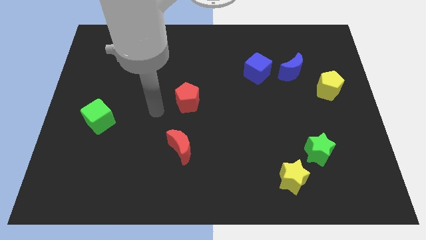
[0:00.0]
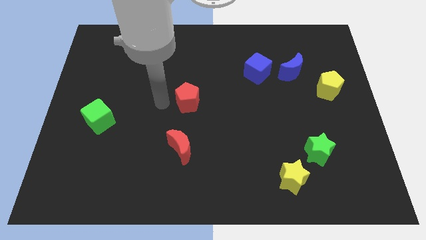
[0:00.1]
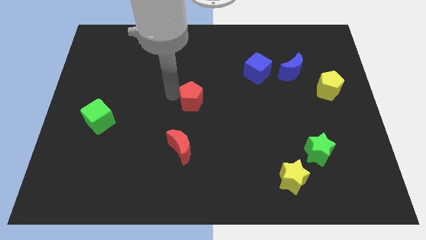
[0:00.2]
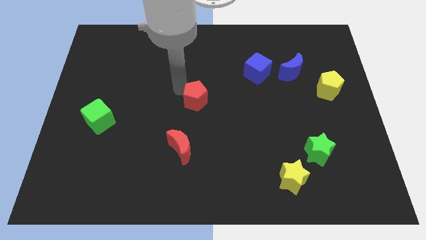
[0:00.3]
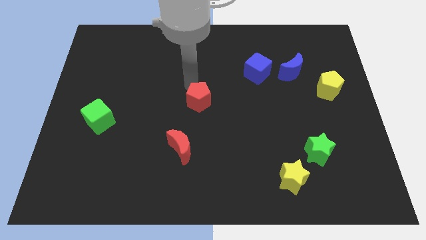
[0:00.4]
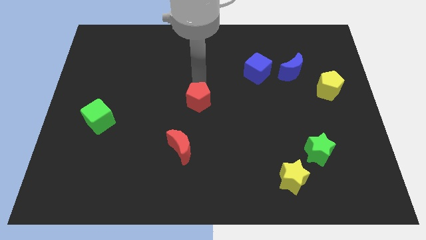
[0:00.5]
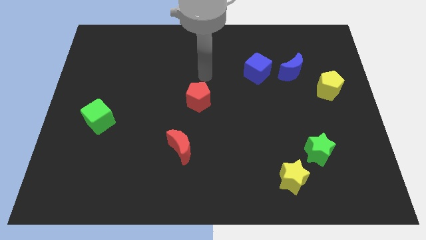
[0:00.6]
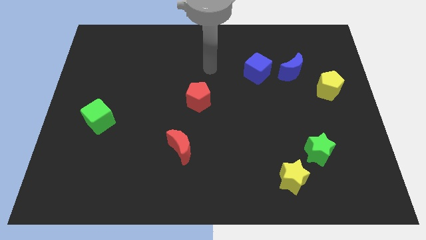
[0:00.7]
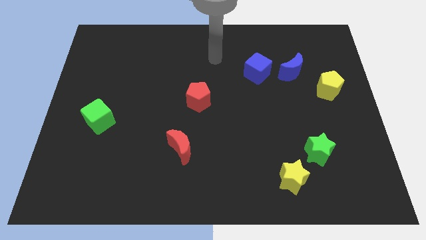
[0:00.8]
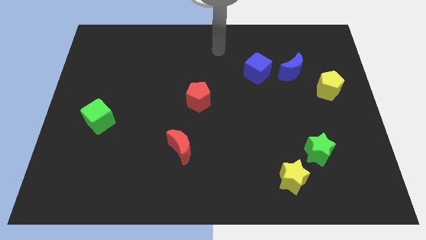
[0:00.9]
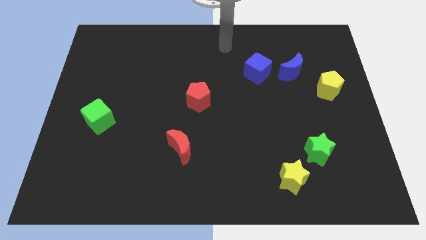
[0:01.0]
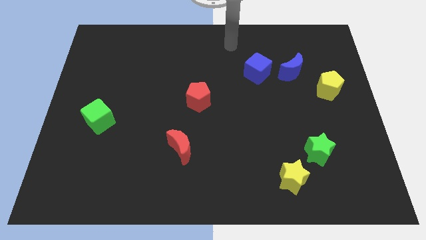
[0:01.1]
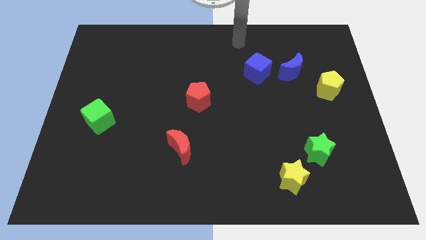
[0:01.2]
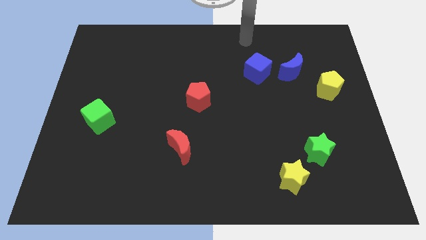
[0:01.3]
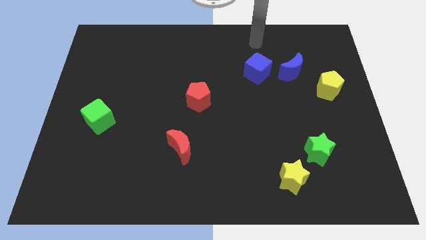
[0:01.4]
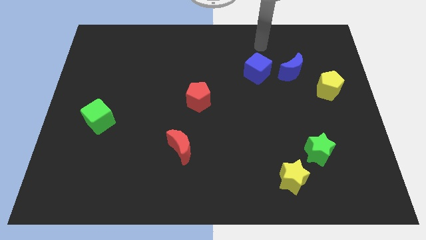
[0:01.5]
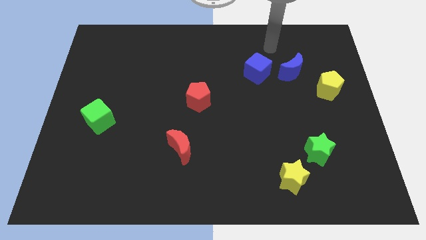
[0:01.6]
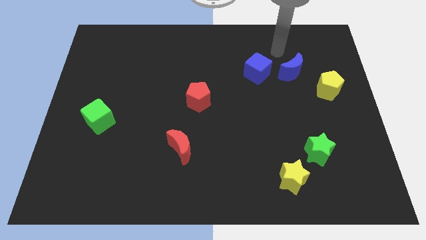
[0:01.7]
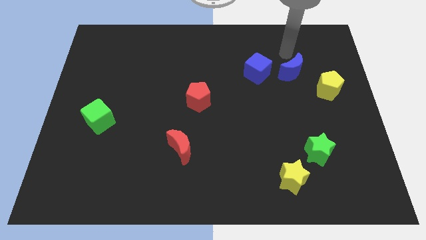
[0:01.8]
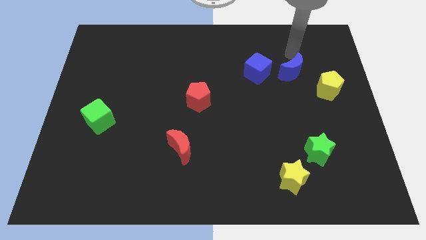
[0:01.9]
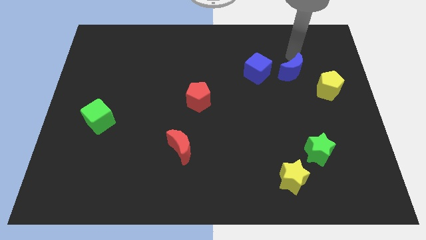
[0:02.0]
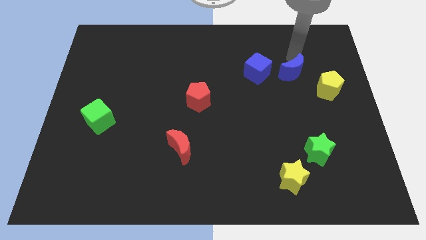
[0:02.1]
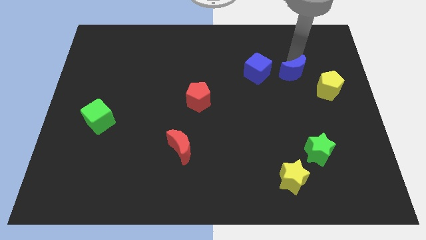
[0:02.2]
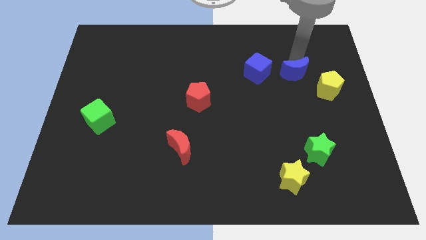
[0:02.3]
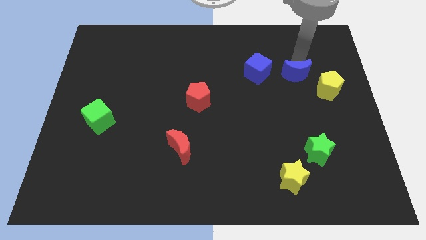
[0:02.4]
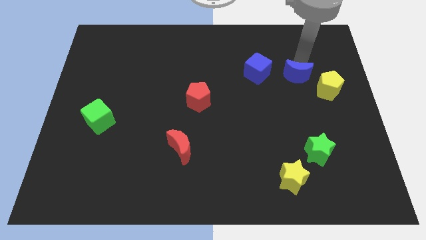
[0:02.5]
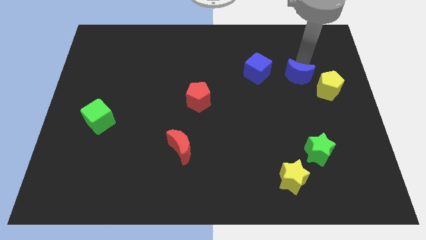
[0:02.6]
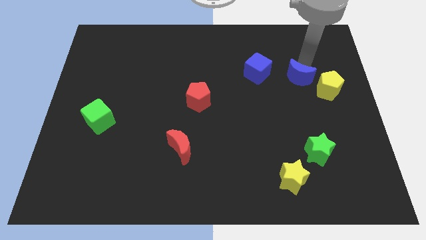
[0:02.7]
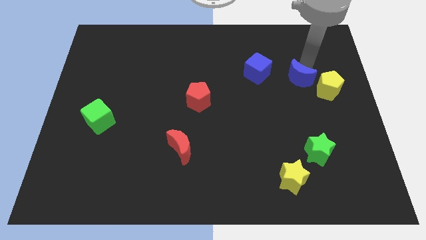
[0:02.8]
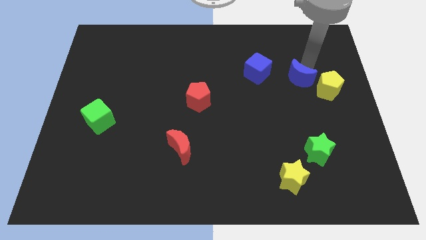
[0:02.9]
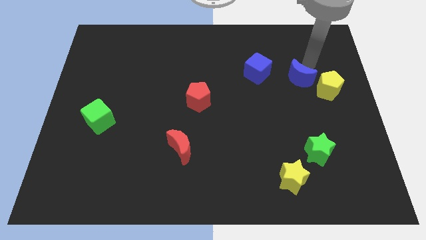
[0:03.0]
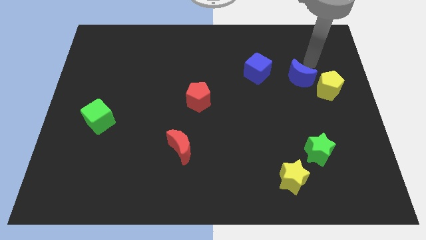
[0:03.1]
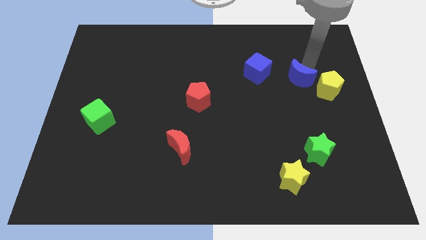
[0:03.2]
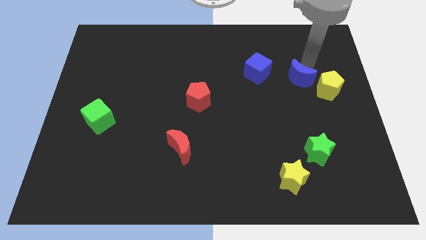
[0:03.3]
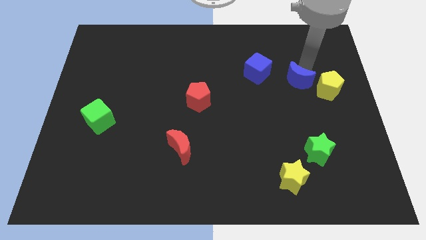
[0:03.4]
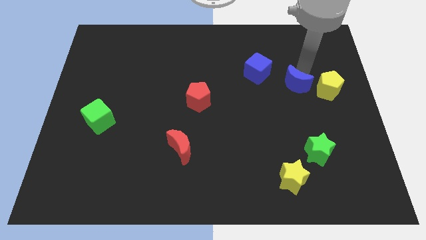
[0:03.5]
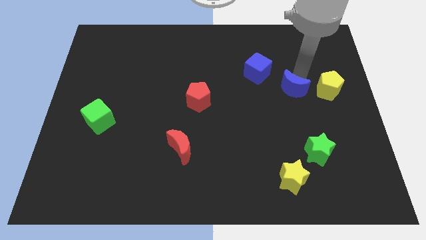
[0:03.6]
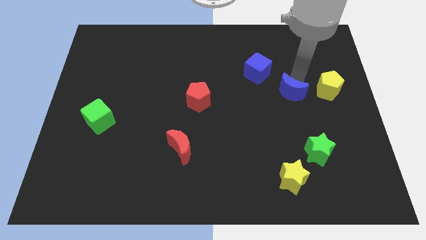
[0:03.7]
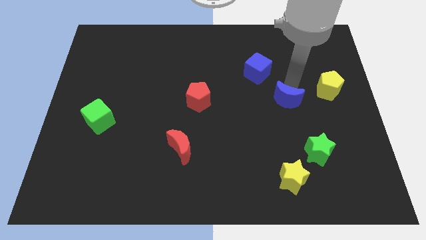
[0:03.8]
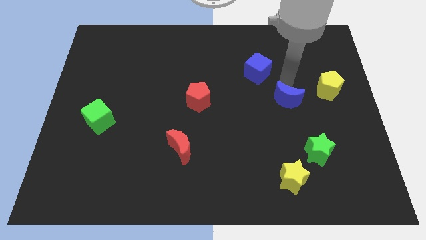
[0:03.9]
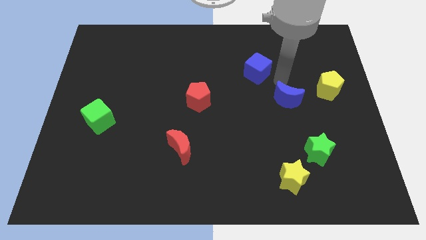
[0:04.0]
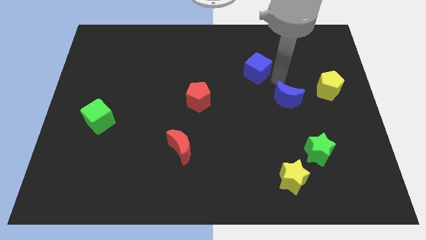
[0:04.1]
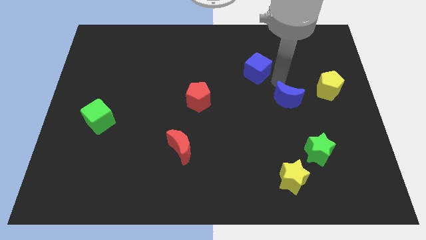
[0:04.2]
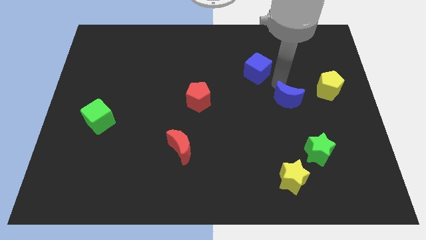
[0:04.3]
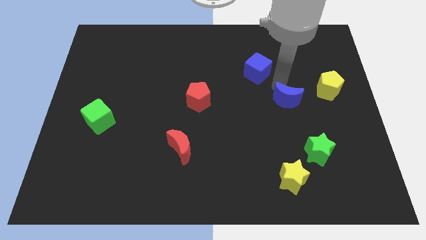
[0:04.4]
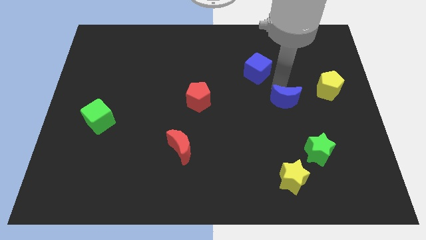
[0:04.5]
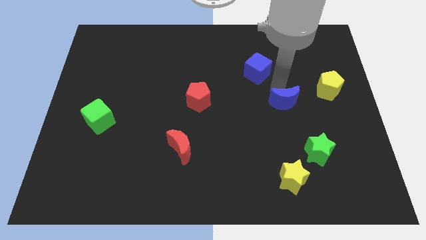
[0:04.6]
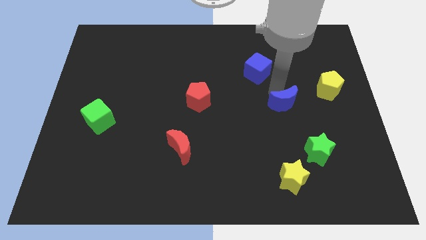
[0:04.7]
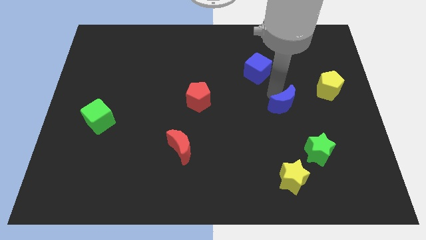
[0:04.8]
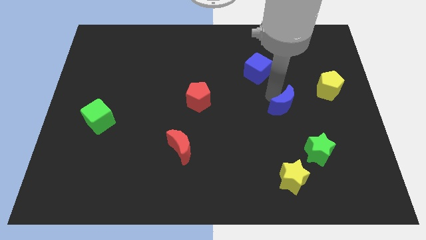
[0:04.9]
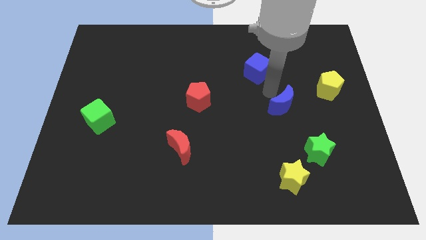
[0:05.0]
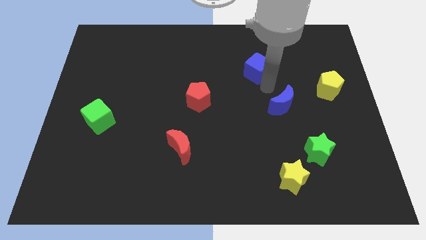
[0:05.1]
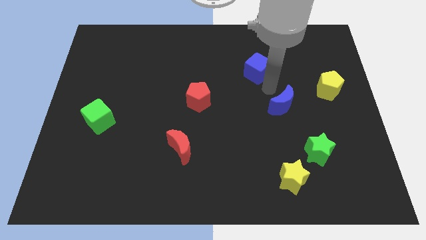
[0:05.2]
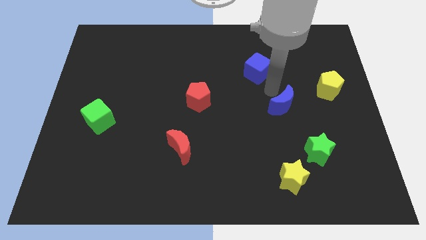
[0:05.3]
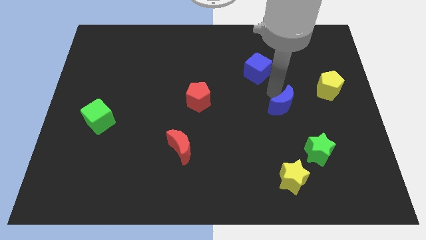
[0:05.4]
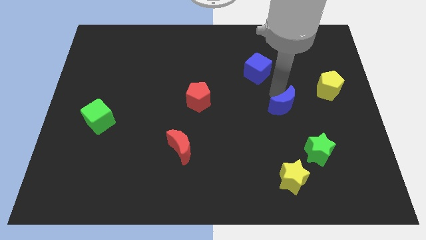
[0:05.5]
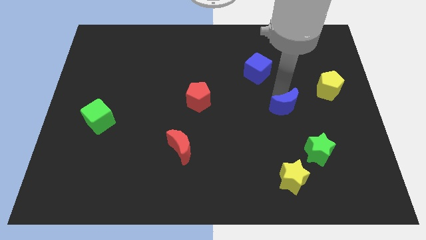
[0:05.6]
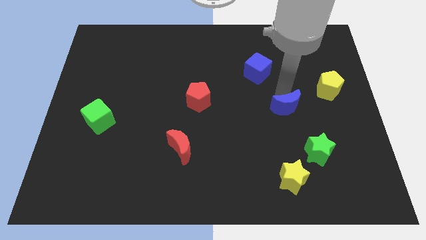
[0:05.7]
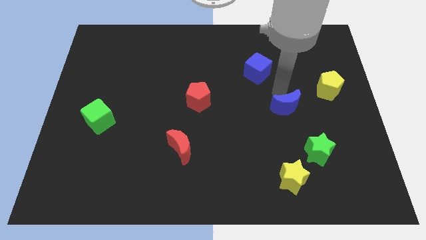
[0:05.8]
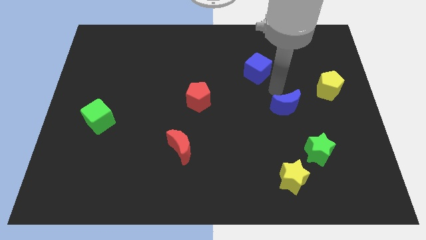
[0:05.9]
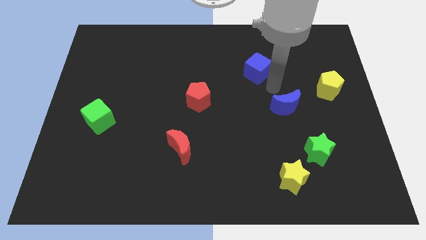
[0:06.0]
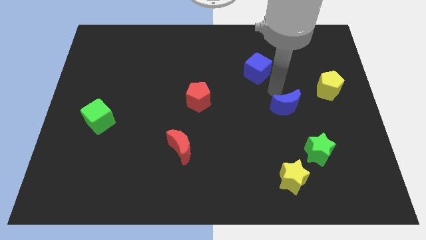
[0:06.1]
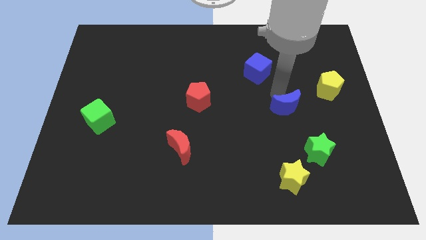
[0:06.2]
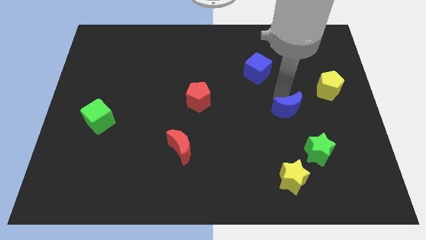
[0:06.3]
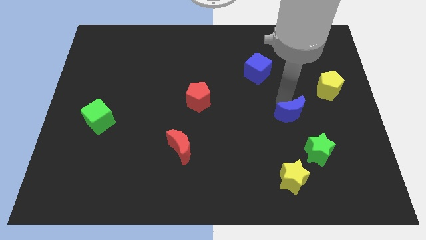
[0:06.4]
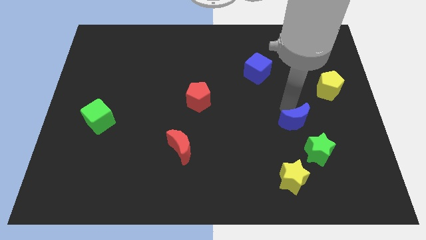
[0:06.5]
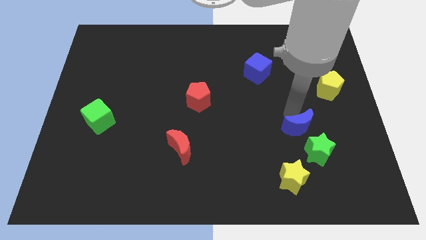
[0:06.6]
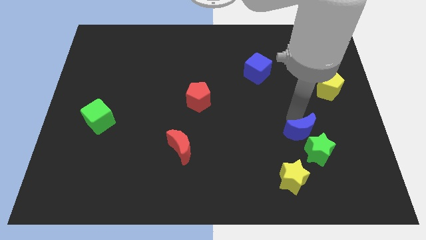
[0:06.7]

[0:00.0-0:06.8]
push the blue moon next to the green star

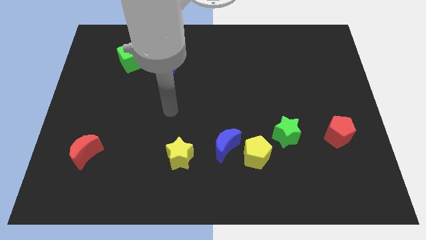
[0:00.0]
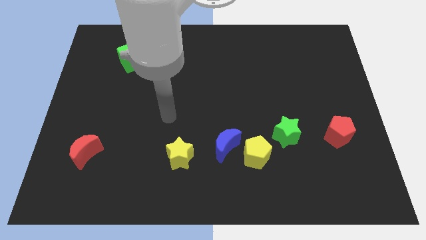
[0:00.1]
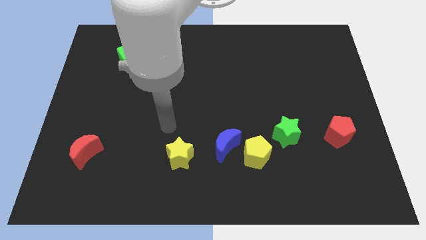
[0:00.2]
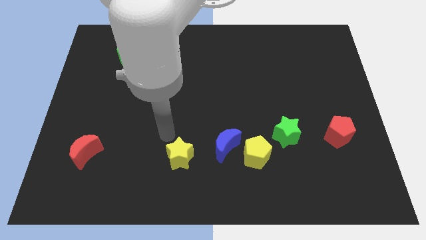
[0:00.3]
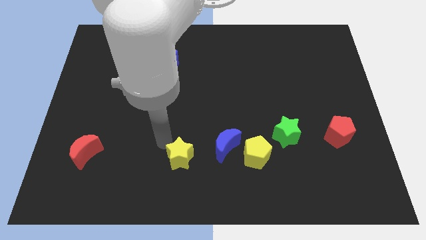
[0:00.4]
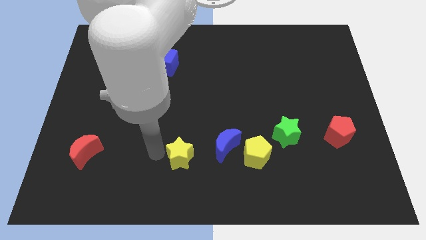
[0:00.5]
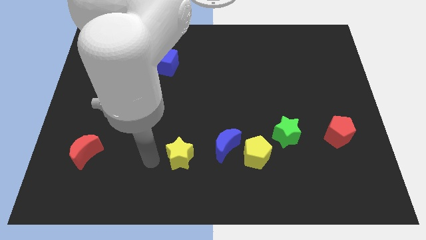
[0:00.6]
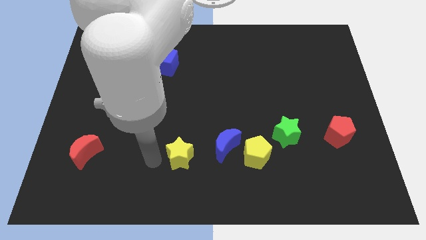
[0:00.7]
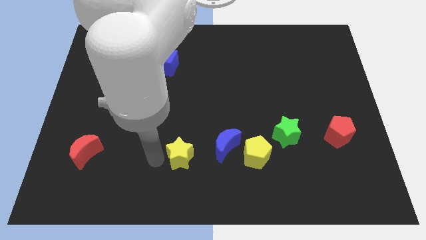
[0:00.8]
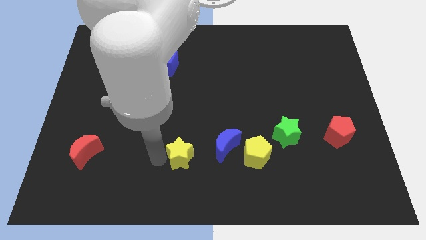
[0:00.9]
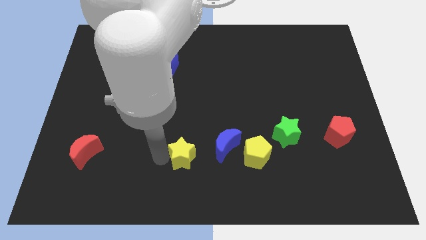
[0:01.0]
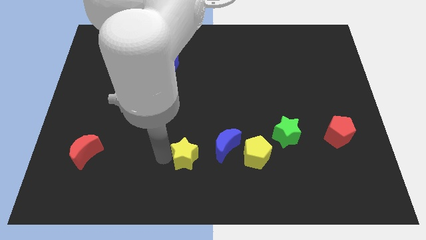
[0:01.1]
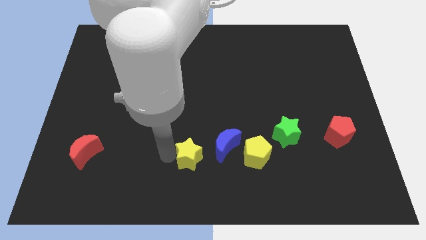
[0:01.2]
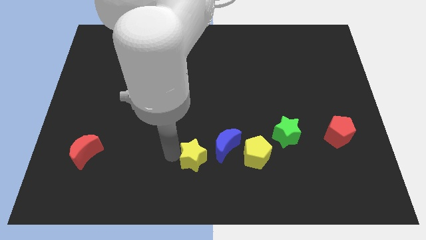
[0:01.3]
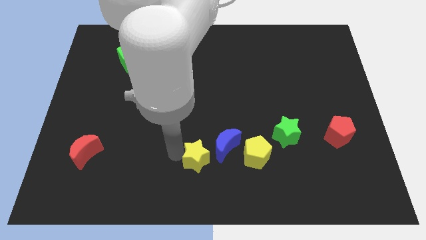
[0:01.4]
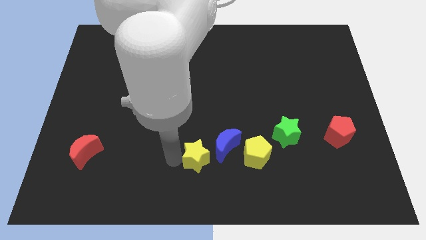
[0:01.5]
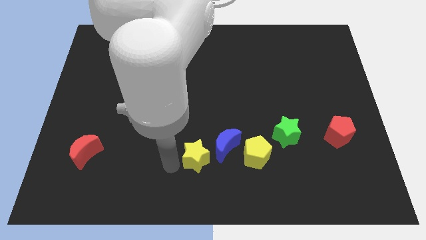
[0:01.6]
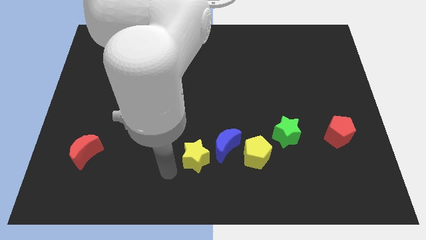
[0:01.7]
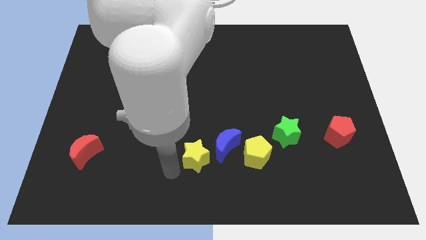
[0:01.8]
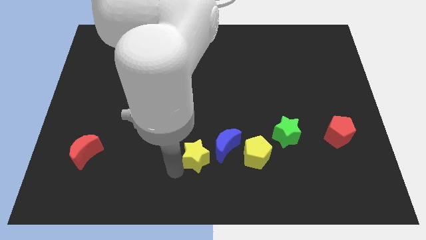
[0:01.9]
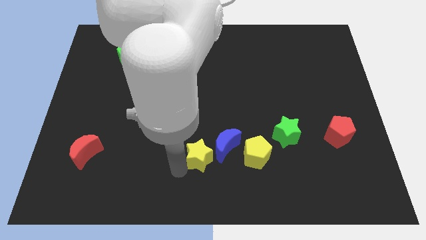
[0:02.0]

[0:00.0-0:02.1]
slide the yellow star next to the blue moon
